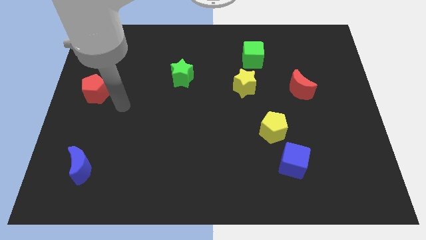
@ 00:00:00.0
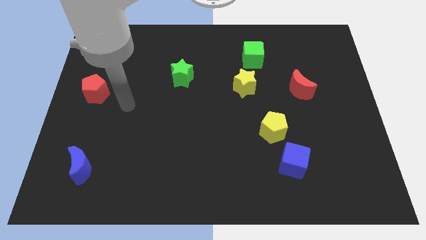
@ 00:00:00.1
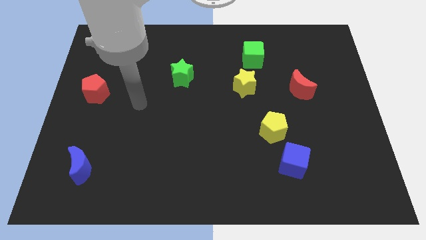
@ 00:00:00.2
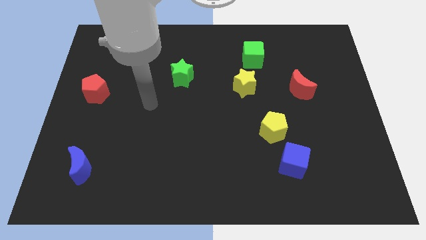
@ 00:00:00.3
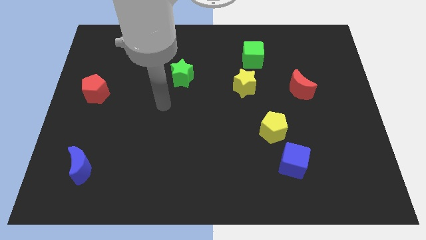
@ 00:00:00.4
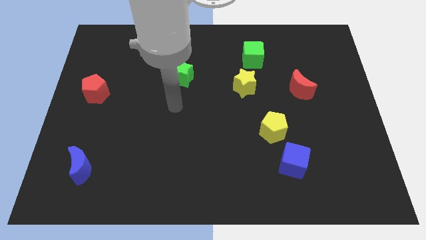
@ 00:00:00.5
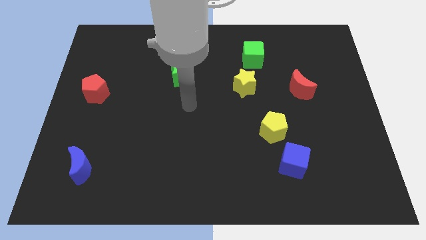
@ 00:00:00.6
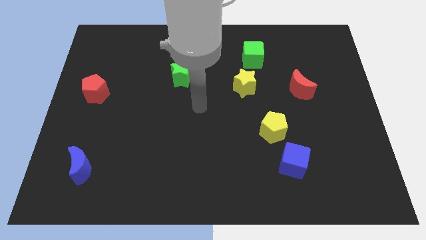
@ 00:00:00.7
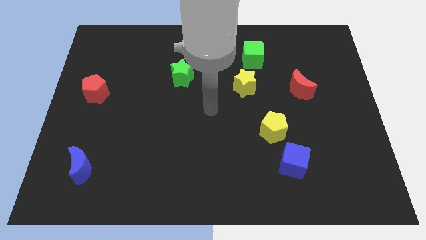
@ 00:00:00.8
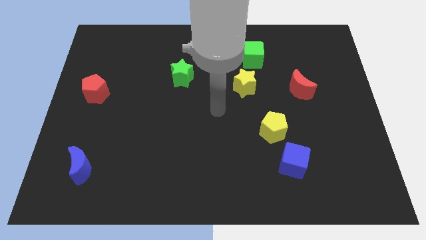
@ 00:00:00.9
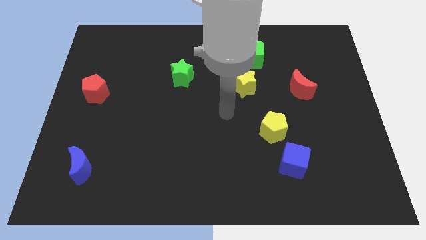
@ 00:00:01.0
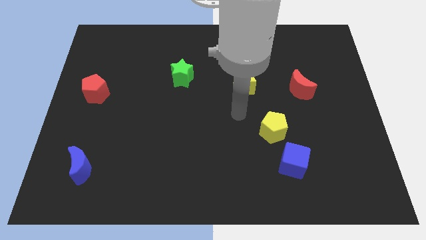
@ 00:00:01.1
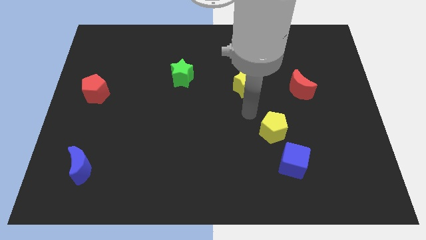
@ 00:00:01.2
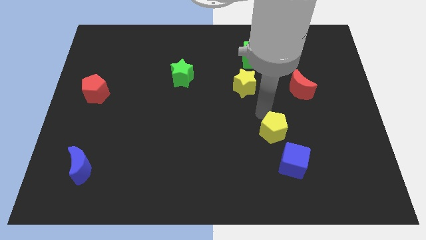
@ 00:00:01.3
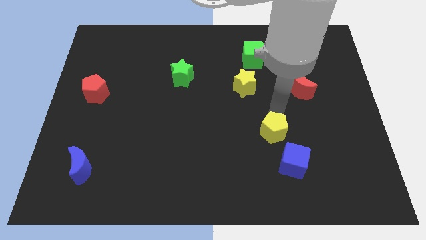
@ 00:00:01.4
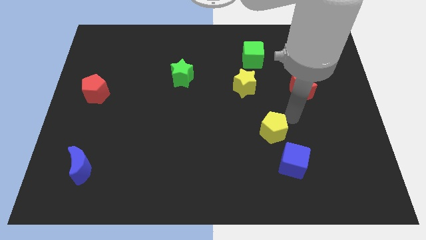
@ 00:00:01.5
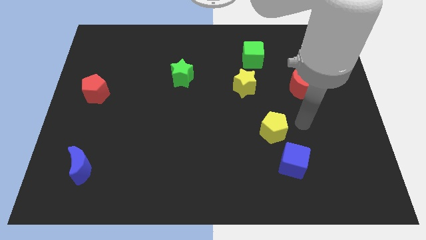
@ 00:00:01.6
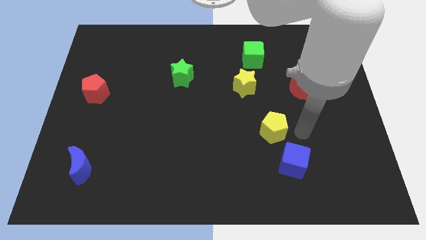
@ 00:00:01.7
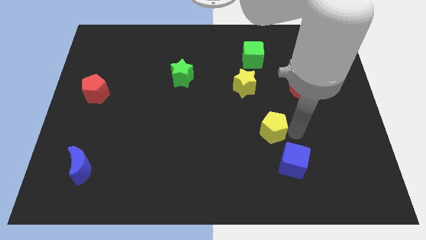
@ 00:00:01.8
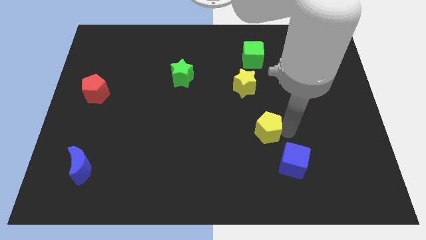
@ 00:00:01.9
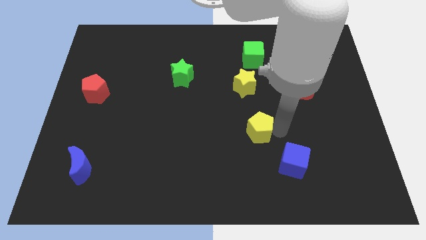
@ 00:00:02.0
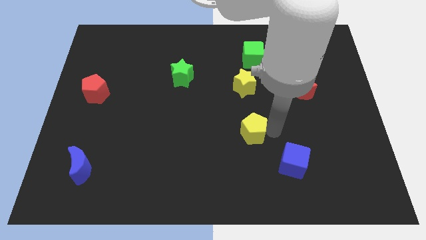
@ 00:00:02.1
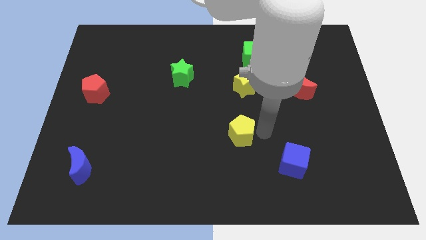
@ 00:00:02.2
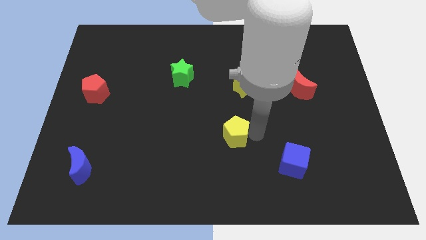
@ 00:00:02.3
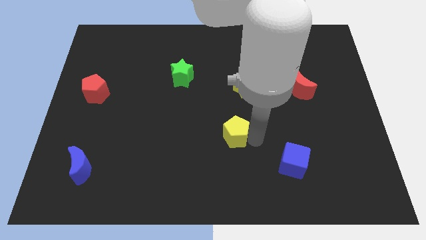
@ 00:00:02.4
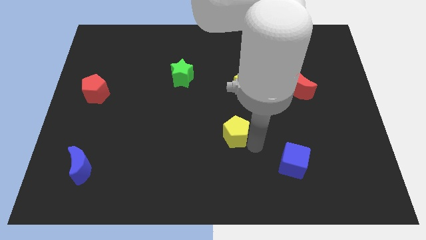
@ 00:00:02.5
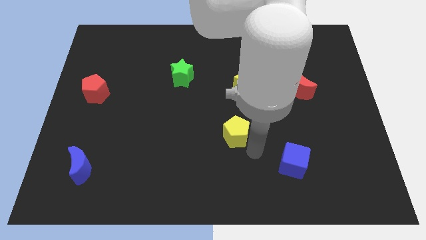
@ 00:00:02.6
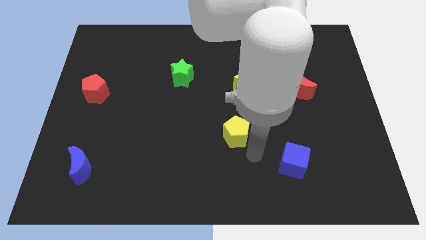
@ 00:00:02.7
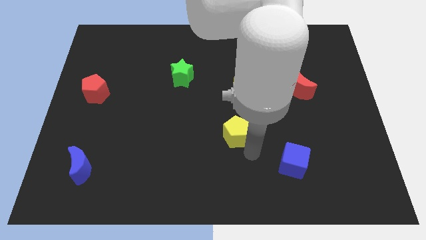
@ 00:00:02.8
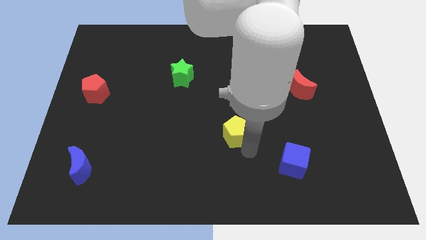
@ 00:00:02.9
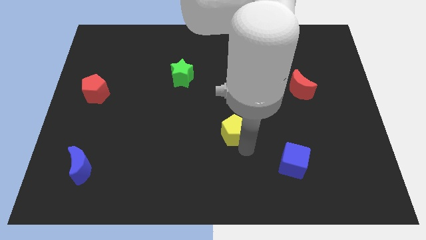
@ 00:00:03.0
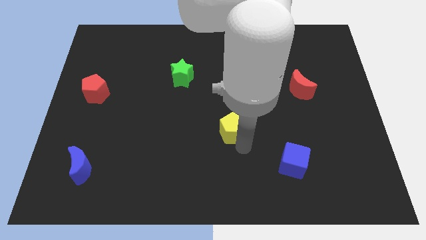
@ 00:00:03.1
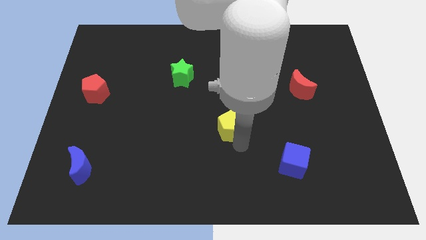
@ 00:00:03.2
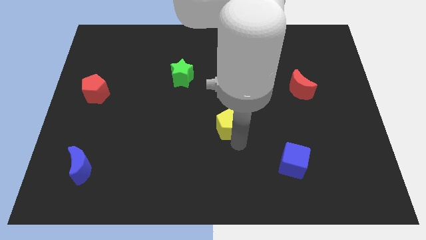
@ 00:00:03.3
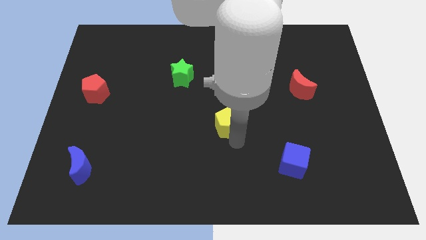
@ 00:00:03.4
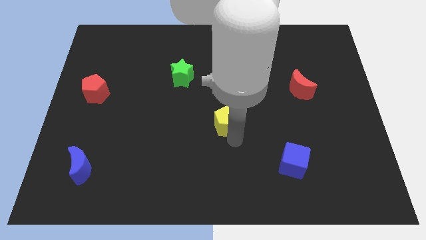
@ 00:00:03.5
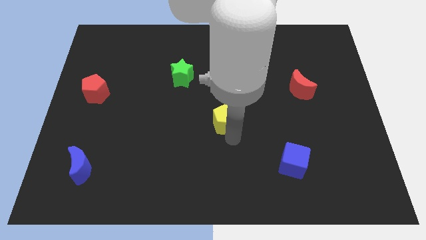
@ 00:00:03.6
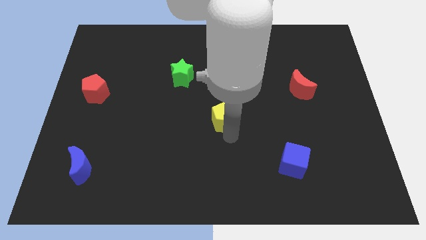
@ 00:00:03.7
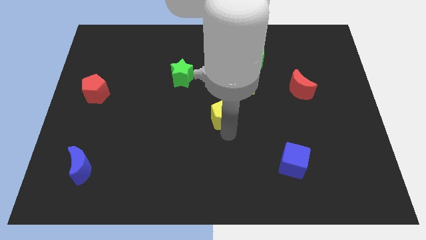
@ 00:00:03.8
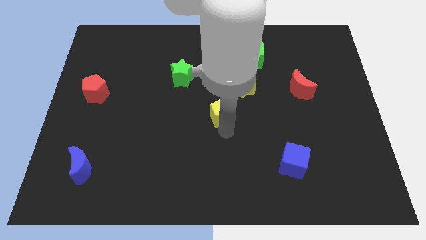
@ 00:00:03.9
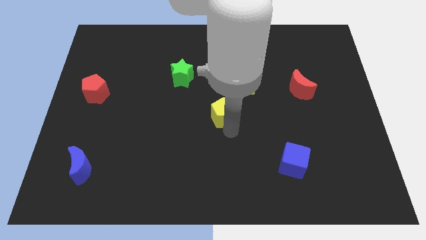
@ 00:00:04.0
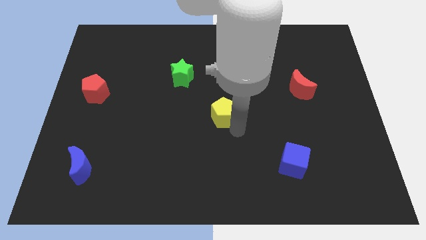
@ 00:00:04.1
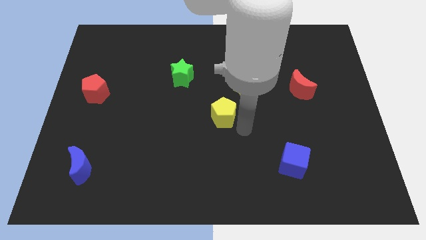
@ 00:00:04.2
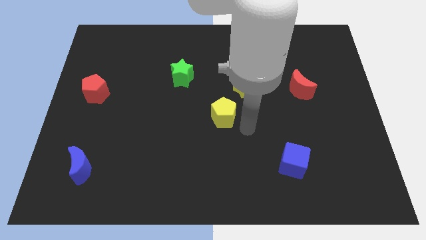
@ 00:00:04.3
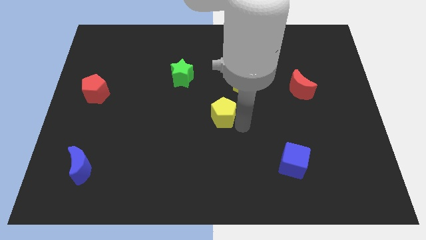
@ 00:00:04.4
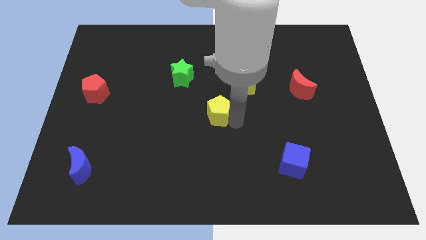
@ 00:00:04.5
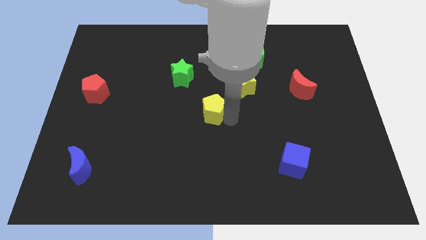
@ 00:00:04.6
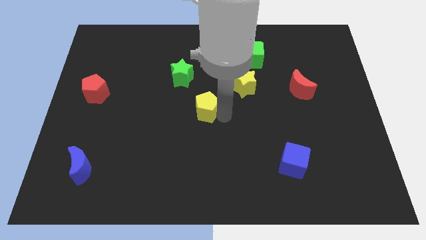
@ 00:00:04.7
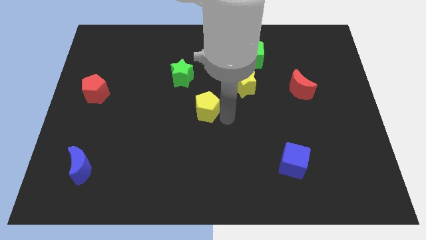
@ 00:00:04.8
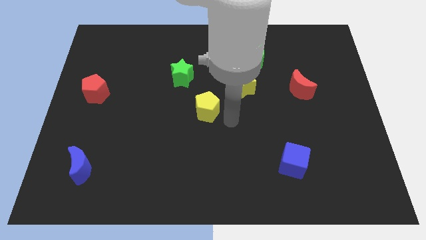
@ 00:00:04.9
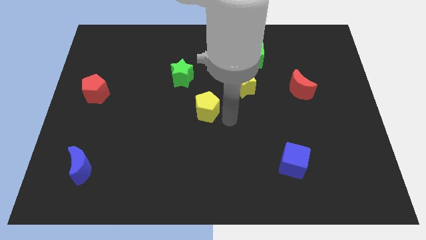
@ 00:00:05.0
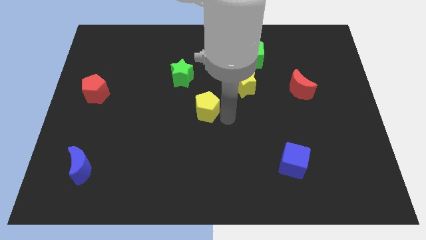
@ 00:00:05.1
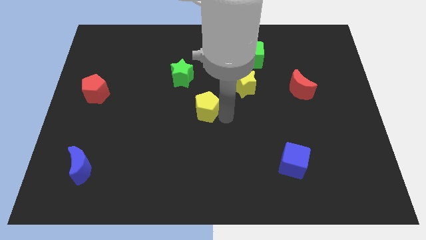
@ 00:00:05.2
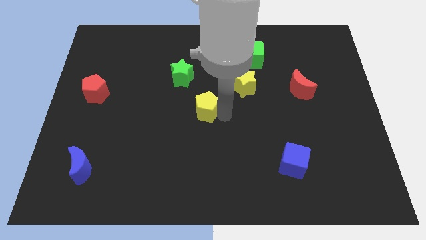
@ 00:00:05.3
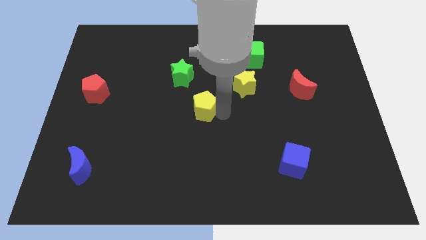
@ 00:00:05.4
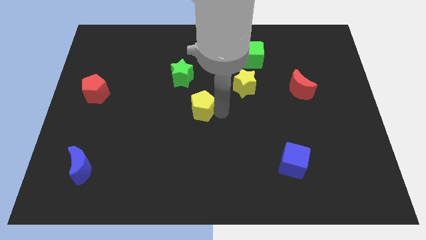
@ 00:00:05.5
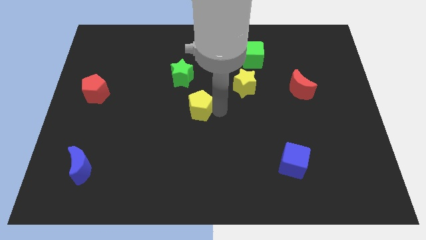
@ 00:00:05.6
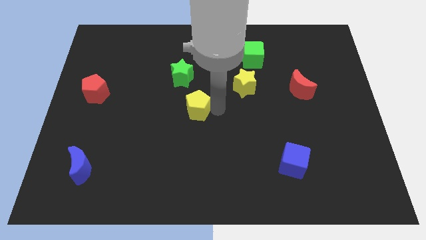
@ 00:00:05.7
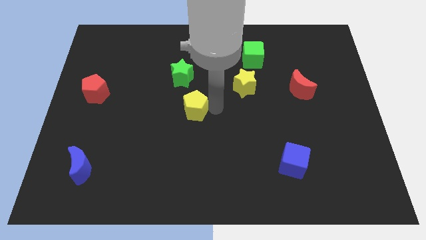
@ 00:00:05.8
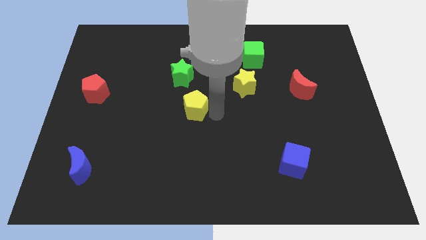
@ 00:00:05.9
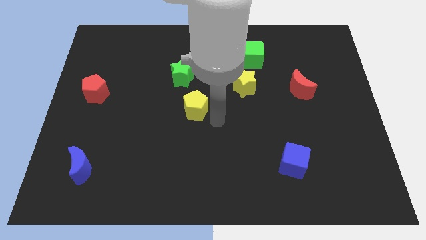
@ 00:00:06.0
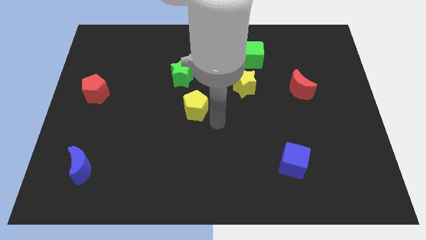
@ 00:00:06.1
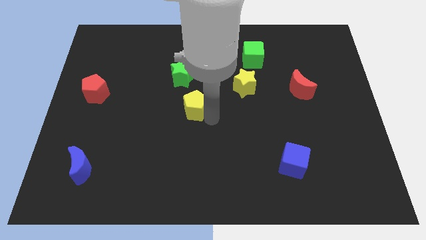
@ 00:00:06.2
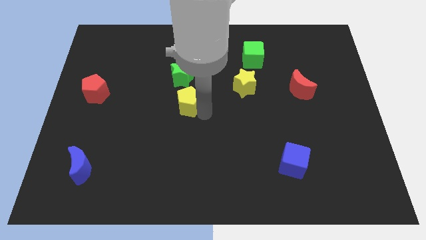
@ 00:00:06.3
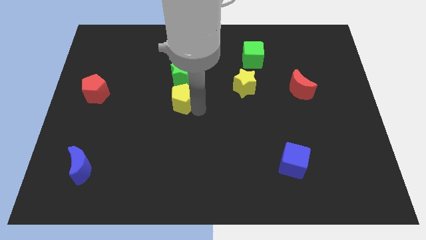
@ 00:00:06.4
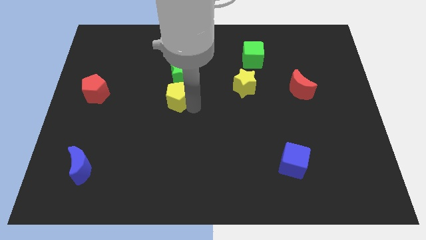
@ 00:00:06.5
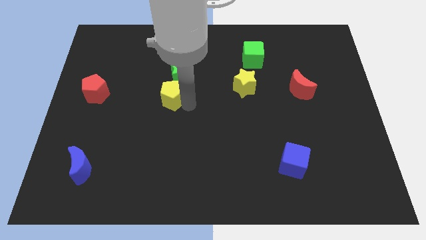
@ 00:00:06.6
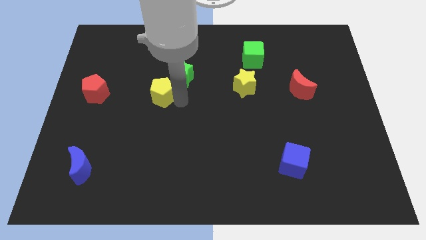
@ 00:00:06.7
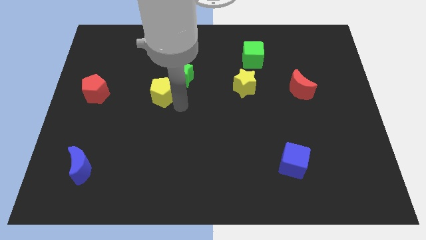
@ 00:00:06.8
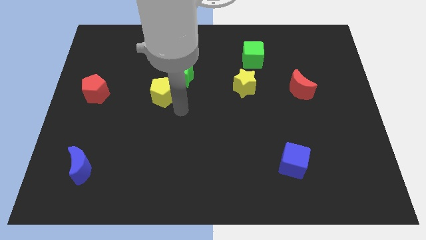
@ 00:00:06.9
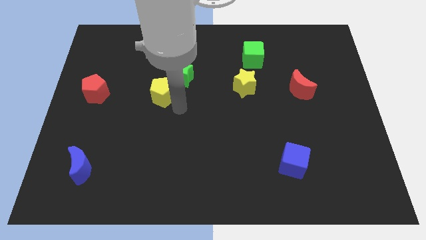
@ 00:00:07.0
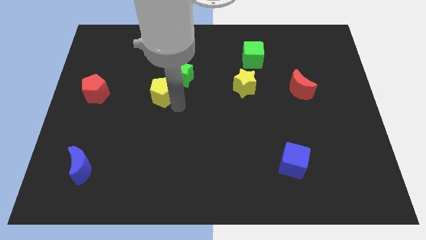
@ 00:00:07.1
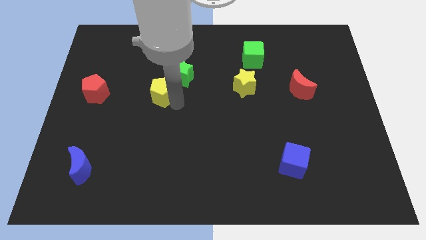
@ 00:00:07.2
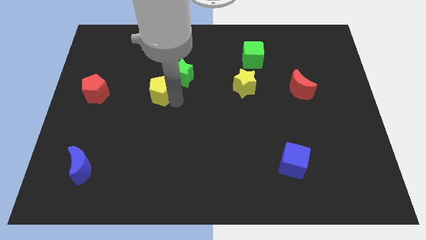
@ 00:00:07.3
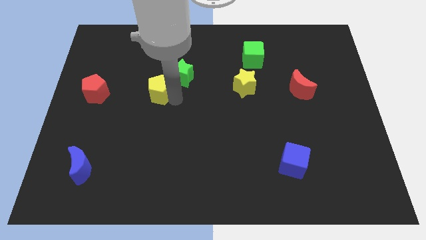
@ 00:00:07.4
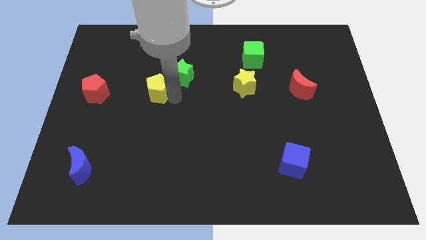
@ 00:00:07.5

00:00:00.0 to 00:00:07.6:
put the yellow pentagon to the left side of the green star

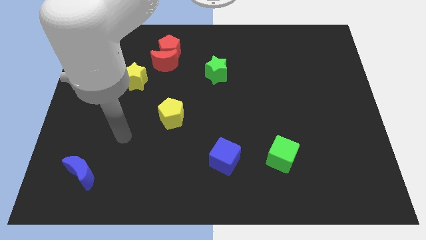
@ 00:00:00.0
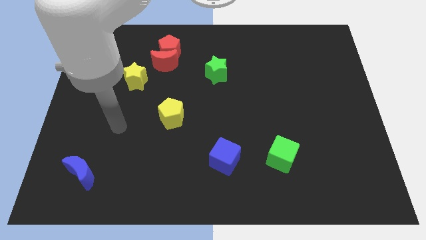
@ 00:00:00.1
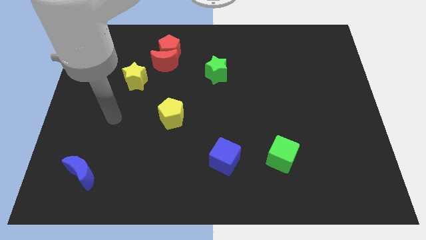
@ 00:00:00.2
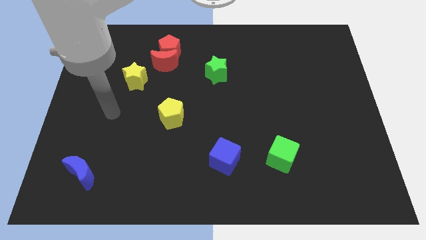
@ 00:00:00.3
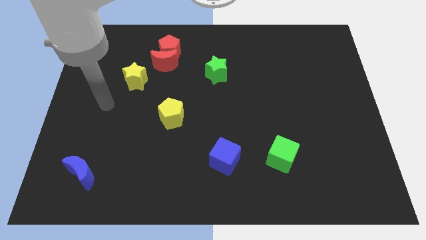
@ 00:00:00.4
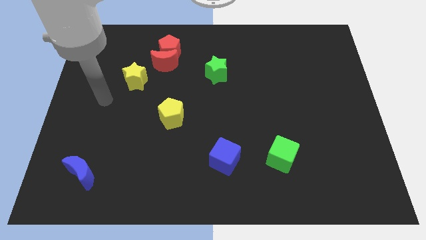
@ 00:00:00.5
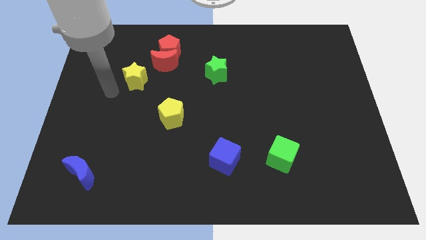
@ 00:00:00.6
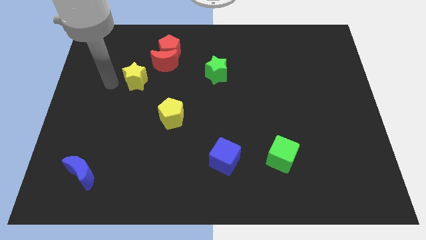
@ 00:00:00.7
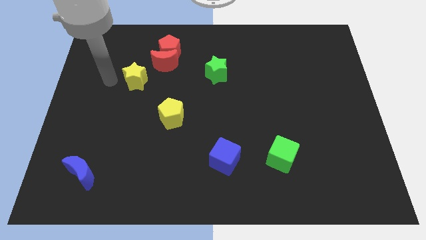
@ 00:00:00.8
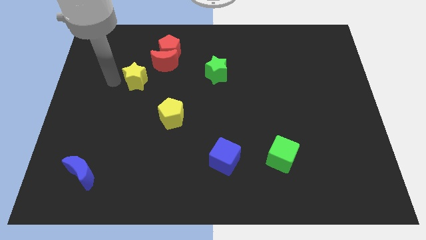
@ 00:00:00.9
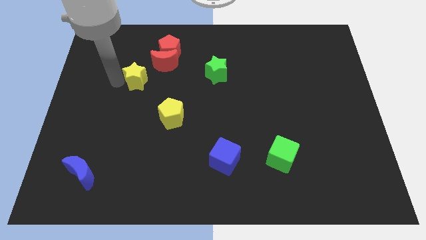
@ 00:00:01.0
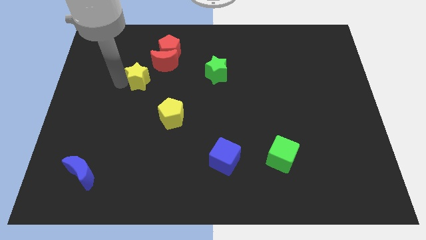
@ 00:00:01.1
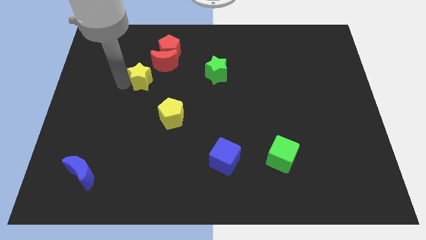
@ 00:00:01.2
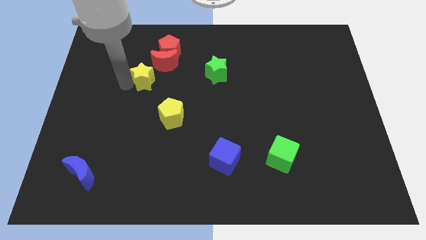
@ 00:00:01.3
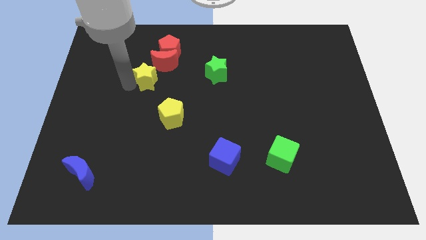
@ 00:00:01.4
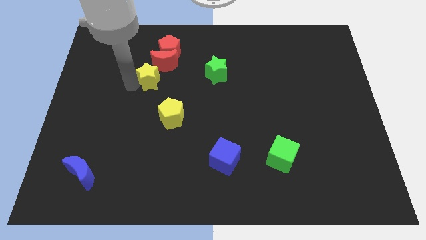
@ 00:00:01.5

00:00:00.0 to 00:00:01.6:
slide the yellow star to the bottom side of the red pentagon
